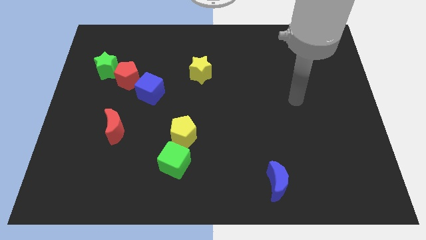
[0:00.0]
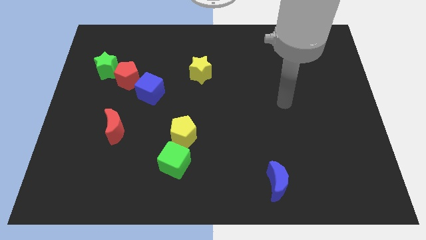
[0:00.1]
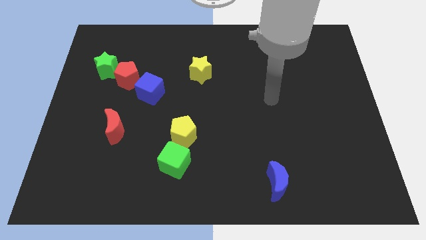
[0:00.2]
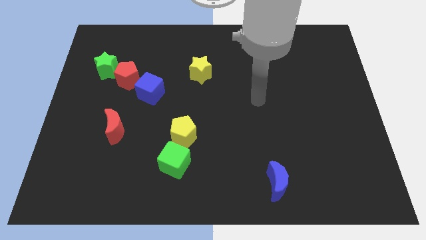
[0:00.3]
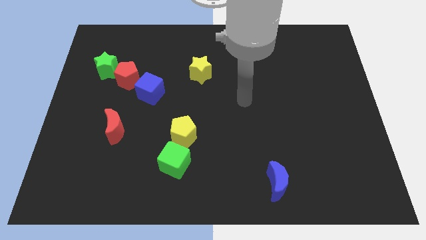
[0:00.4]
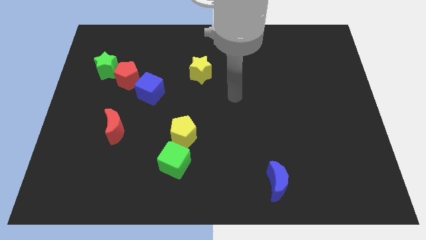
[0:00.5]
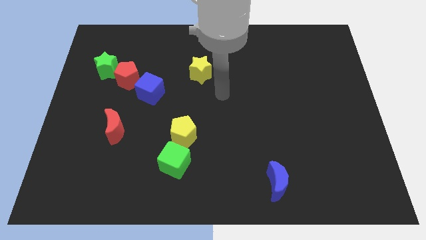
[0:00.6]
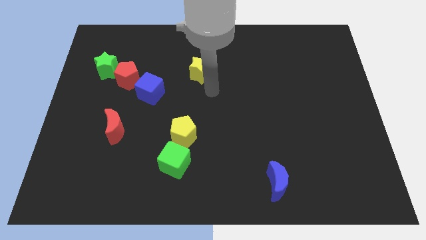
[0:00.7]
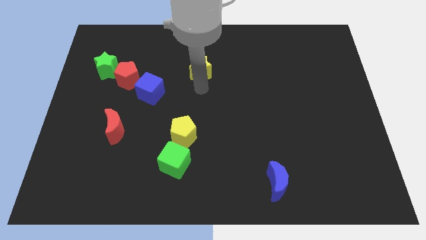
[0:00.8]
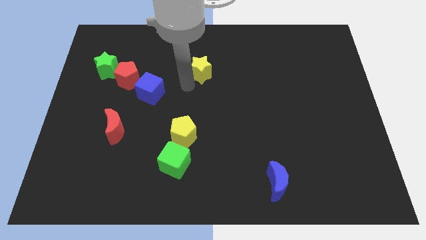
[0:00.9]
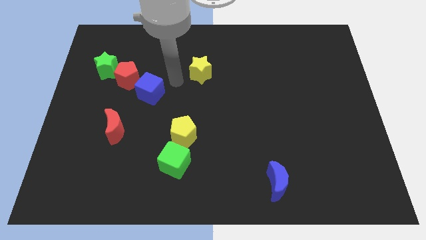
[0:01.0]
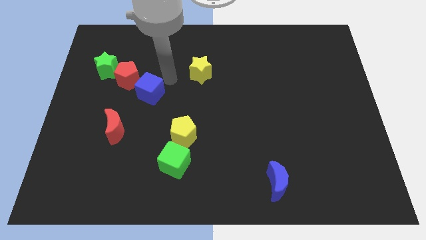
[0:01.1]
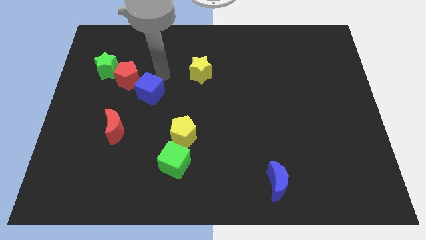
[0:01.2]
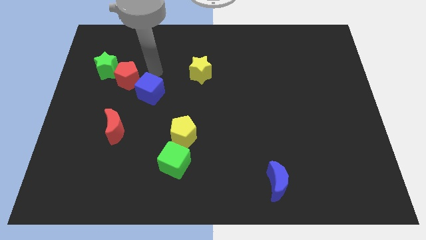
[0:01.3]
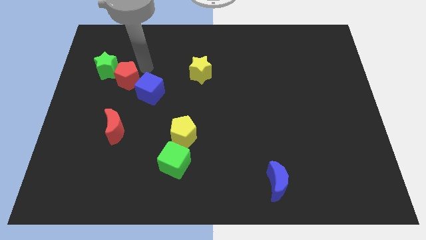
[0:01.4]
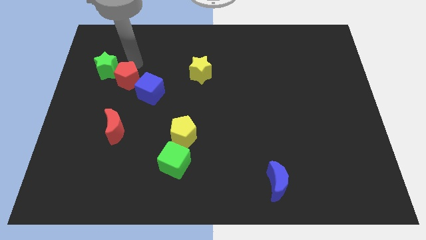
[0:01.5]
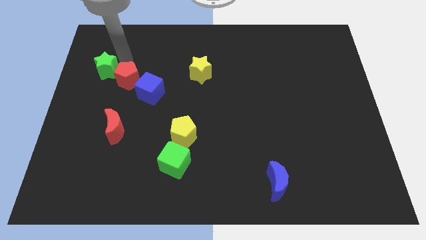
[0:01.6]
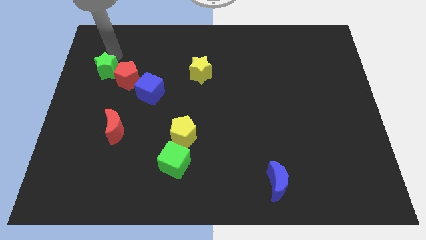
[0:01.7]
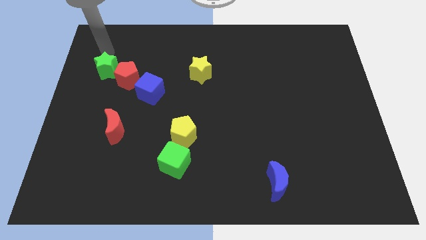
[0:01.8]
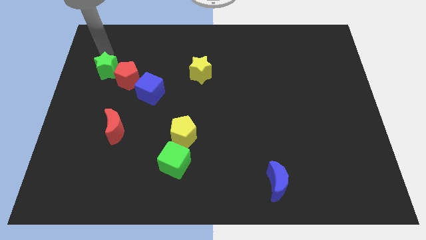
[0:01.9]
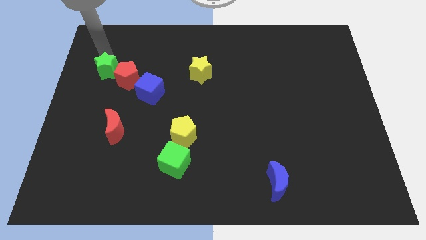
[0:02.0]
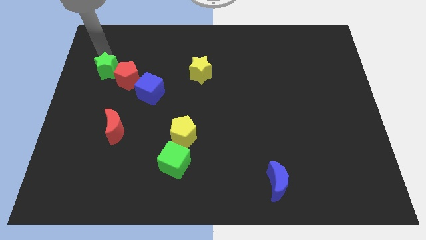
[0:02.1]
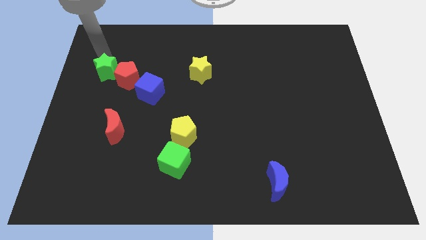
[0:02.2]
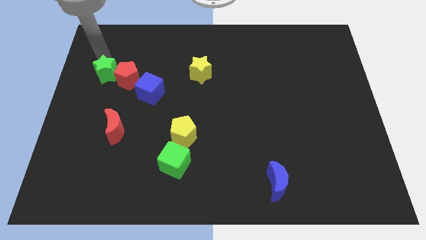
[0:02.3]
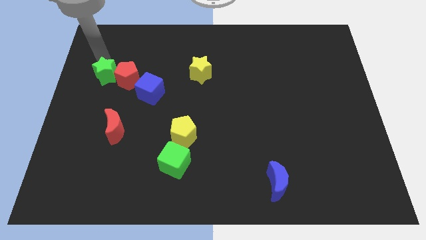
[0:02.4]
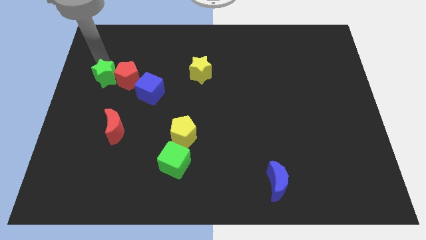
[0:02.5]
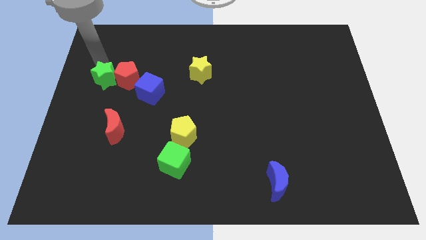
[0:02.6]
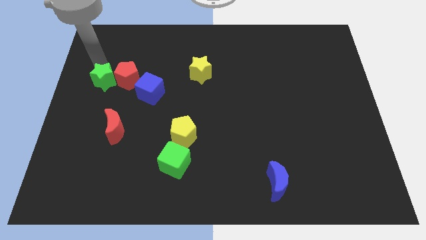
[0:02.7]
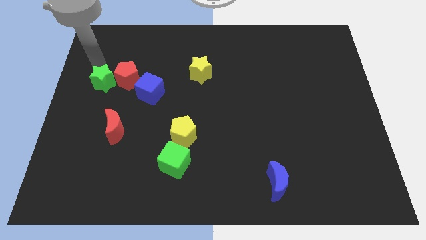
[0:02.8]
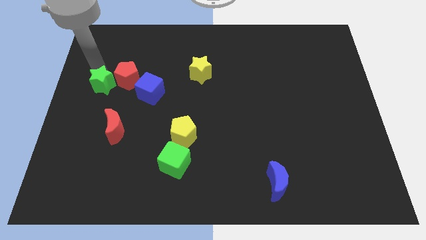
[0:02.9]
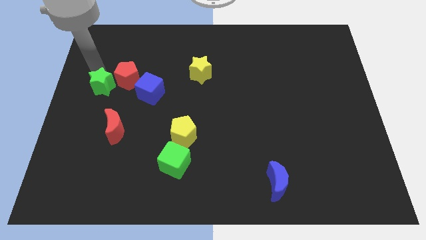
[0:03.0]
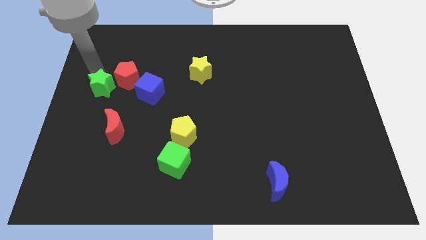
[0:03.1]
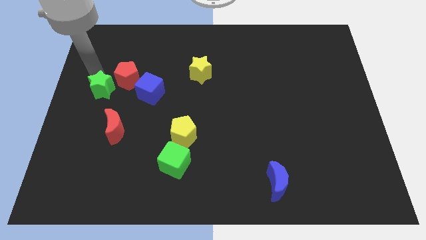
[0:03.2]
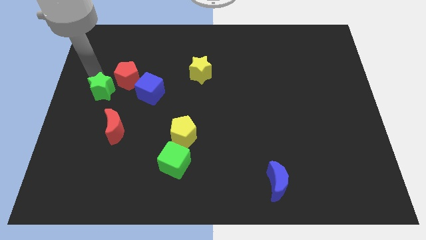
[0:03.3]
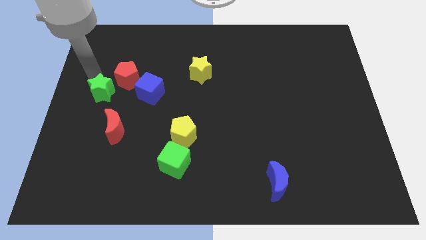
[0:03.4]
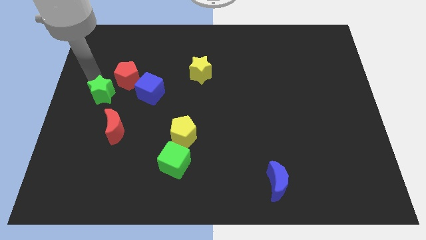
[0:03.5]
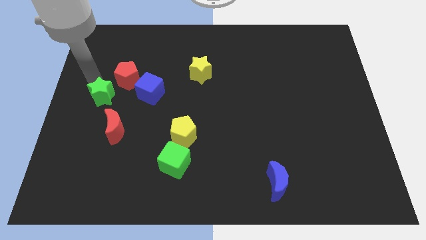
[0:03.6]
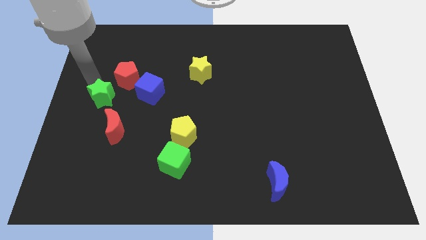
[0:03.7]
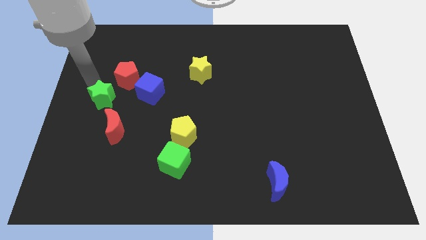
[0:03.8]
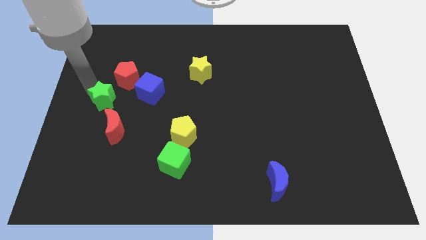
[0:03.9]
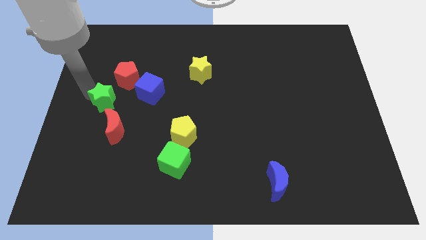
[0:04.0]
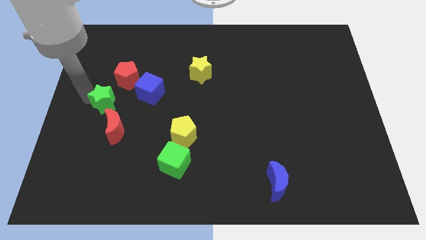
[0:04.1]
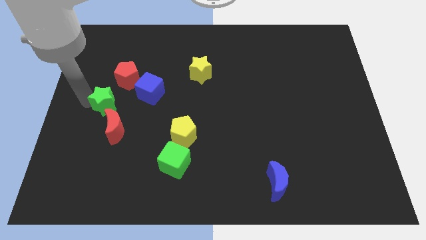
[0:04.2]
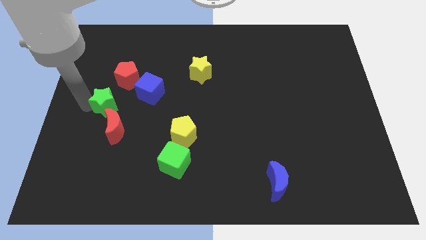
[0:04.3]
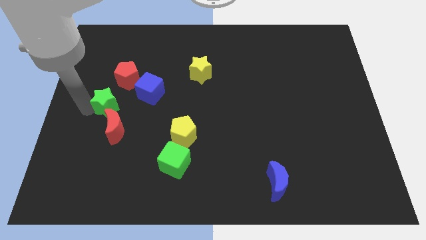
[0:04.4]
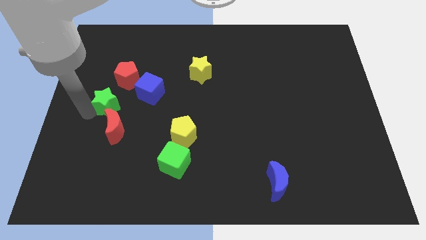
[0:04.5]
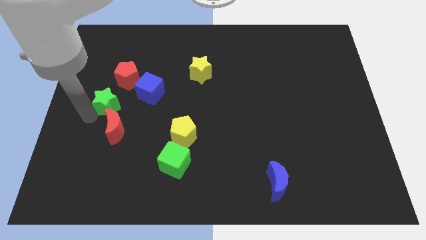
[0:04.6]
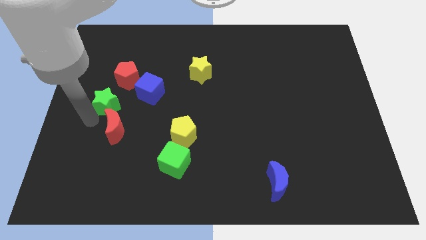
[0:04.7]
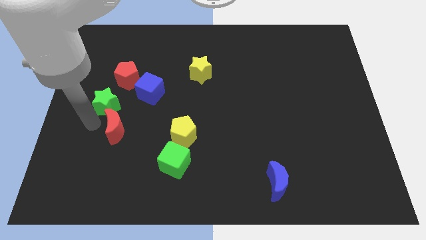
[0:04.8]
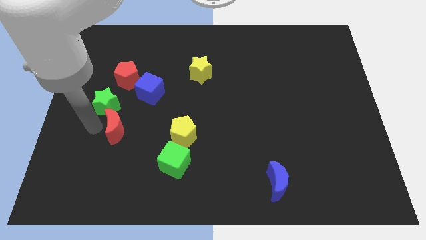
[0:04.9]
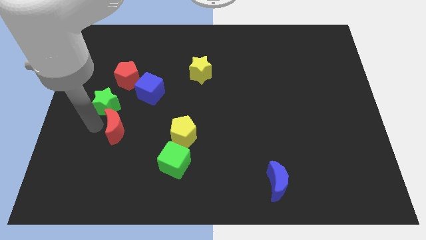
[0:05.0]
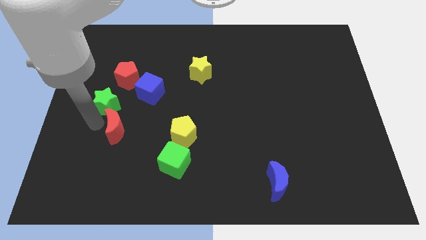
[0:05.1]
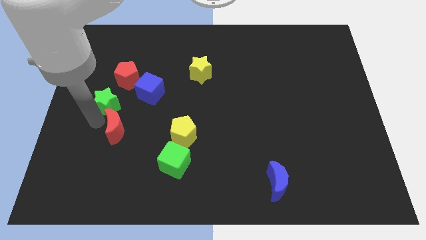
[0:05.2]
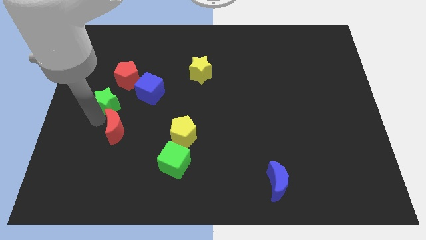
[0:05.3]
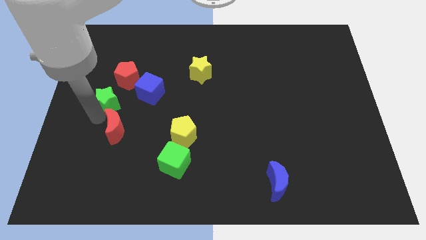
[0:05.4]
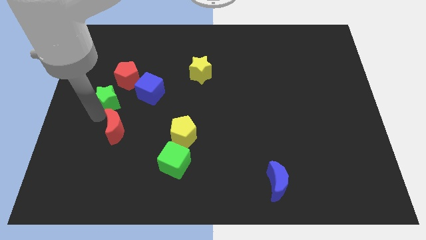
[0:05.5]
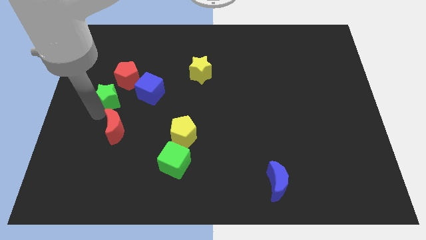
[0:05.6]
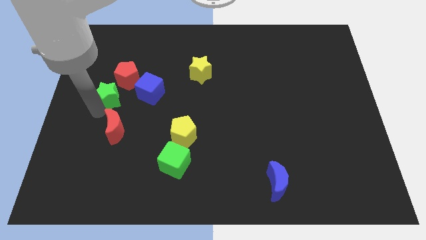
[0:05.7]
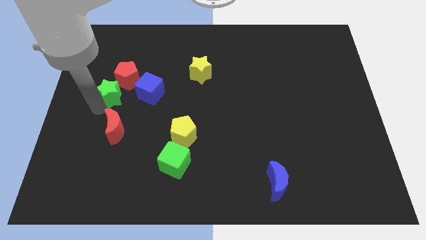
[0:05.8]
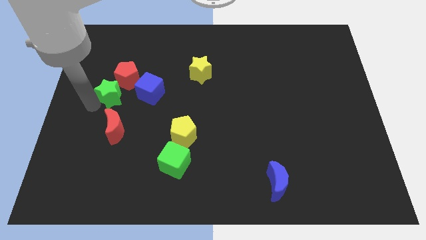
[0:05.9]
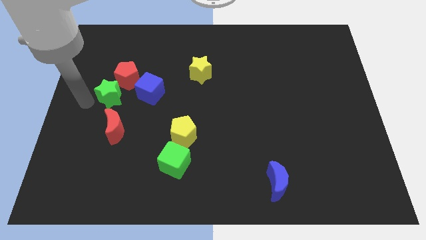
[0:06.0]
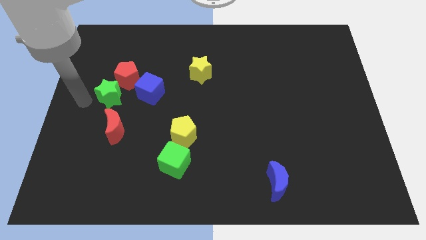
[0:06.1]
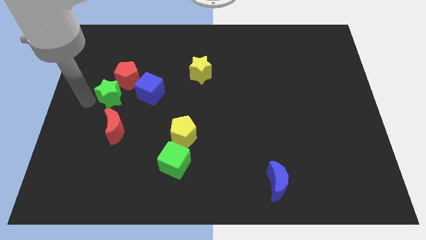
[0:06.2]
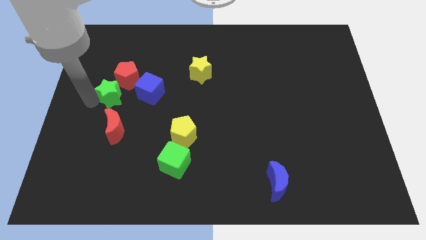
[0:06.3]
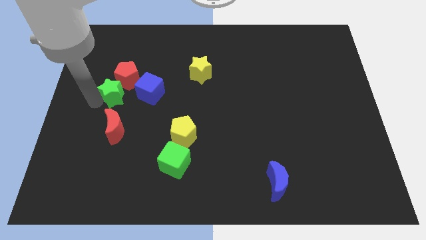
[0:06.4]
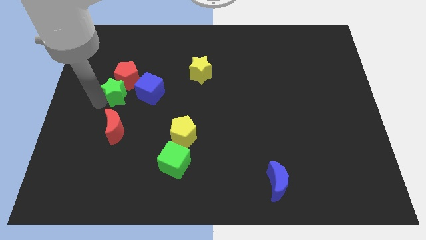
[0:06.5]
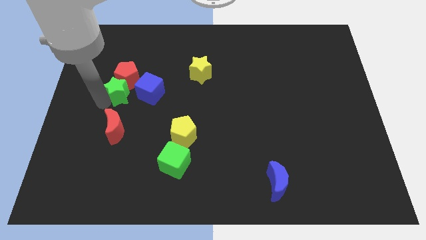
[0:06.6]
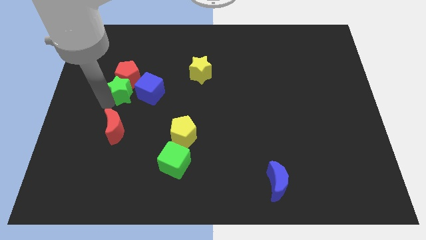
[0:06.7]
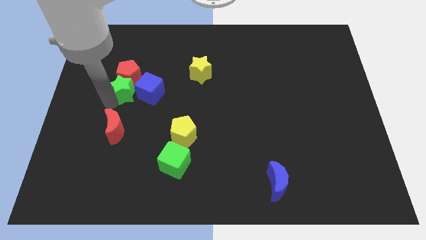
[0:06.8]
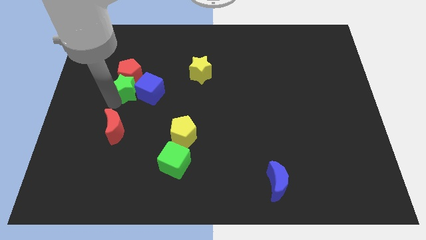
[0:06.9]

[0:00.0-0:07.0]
move the green star towards the blue cube
